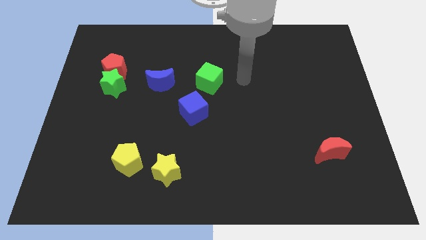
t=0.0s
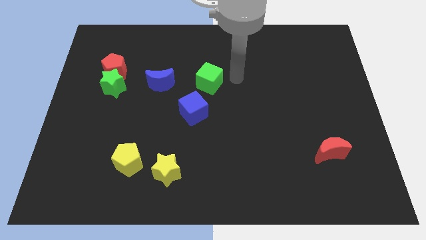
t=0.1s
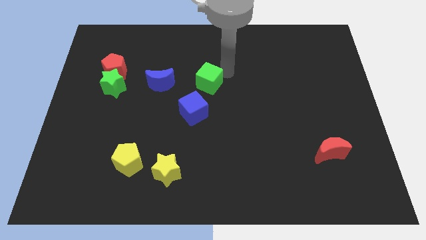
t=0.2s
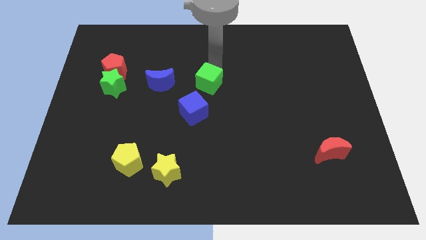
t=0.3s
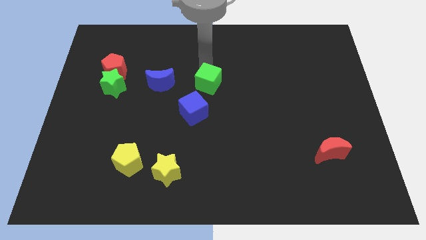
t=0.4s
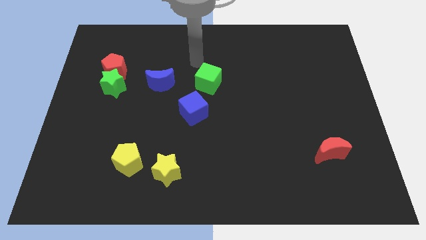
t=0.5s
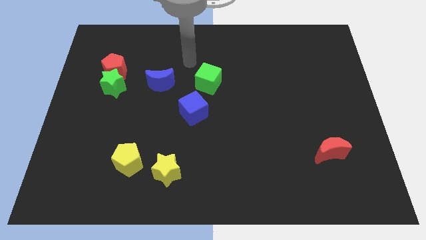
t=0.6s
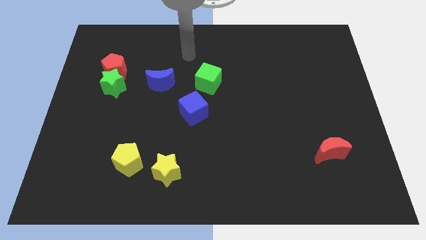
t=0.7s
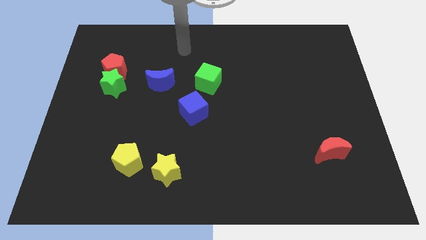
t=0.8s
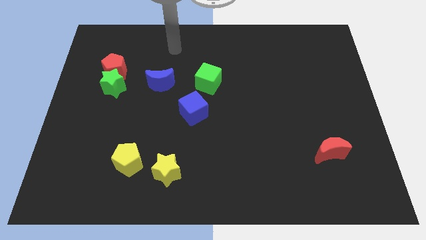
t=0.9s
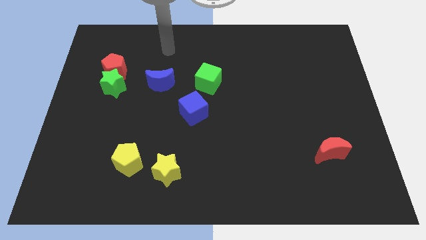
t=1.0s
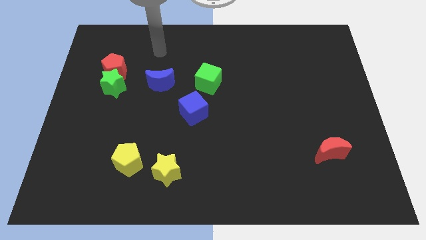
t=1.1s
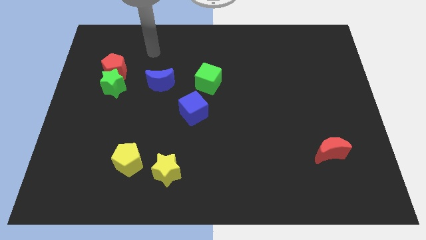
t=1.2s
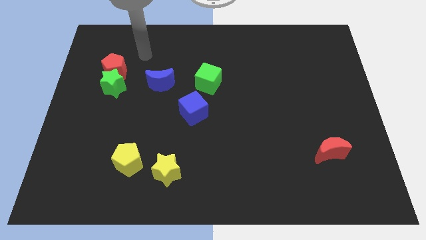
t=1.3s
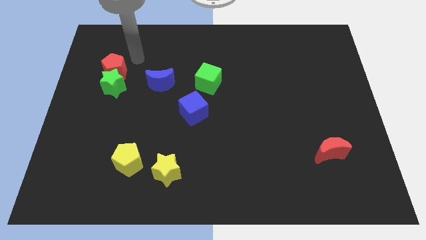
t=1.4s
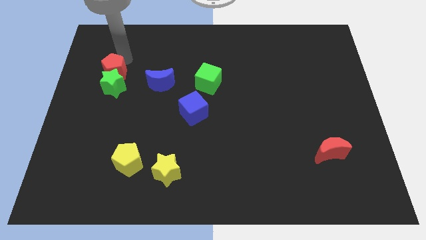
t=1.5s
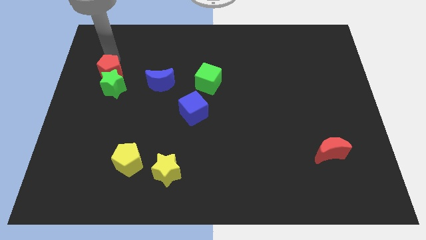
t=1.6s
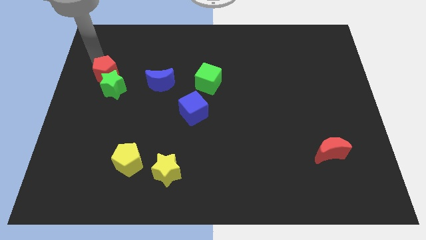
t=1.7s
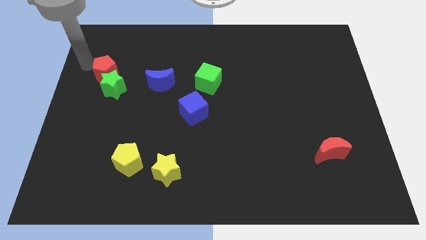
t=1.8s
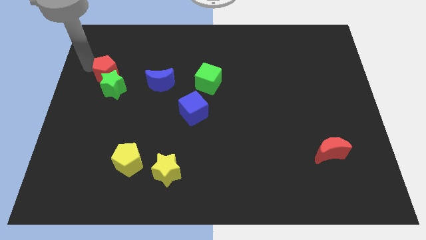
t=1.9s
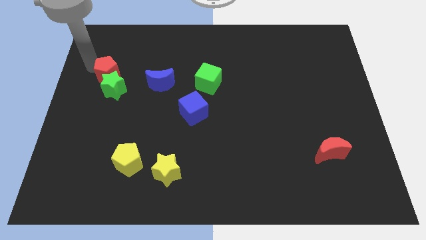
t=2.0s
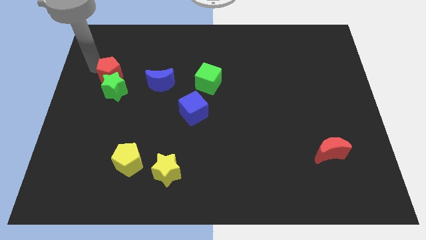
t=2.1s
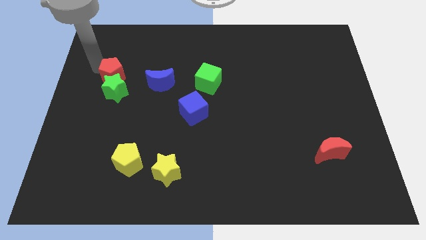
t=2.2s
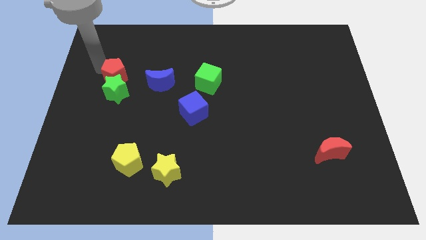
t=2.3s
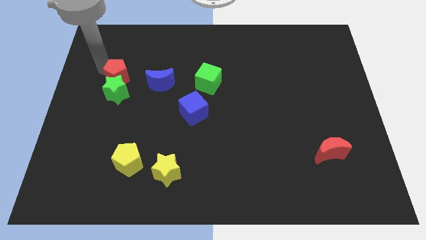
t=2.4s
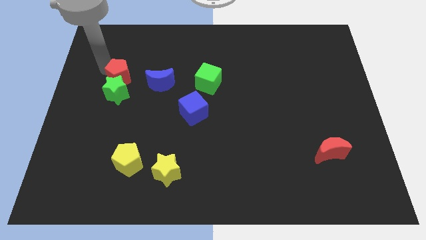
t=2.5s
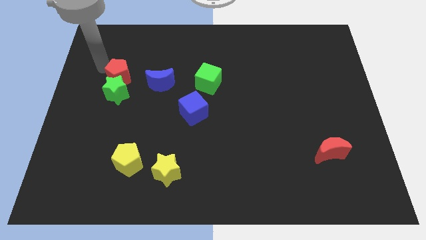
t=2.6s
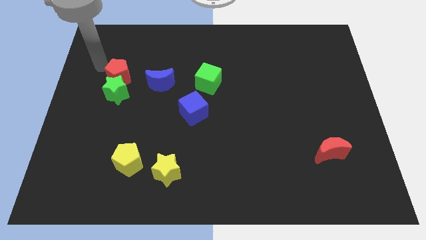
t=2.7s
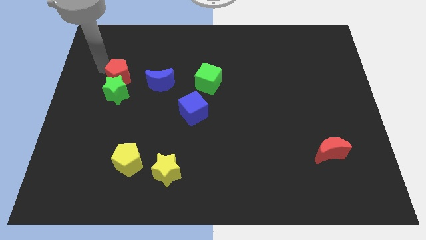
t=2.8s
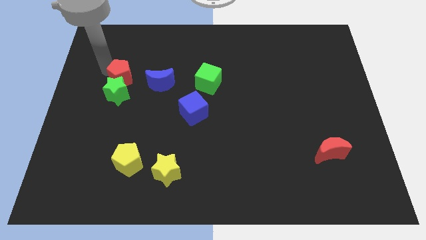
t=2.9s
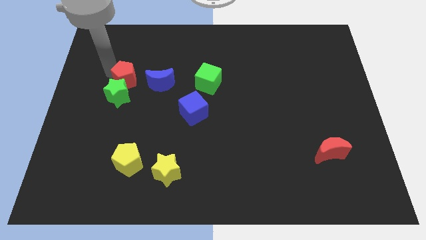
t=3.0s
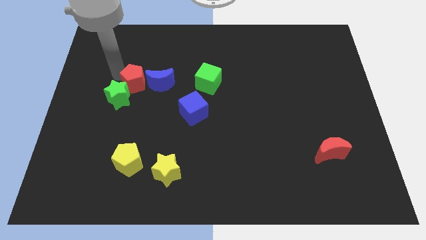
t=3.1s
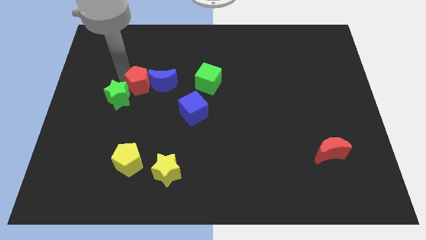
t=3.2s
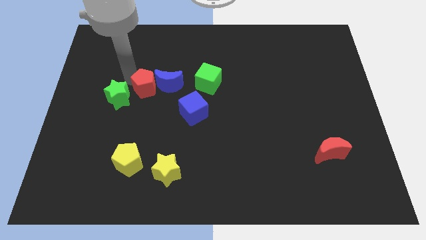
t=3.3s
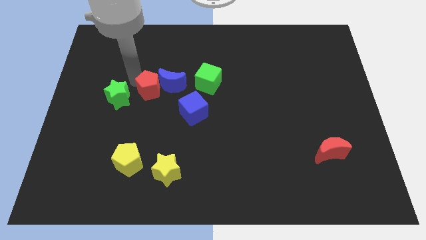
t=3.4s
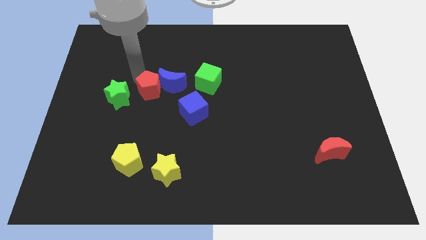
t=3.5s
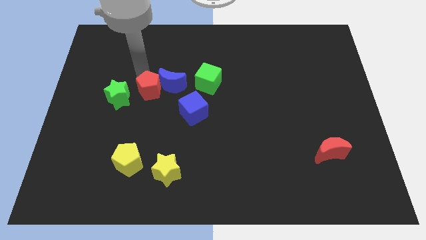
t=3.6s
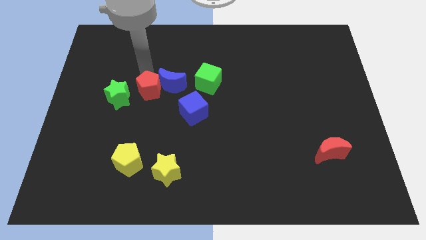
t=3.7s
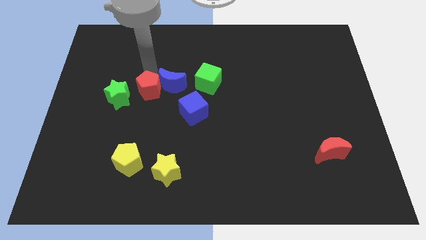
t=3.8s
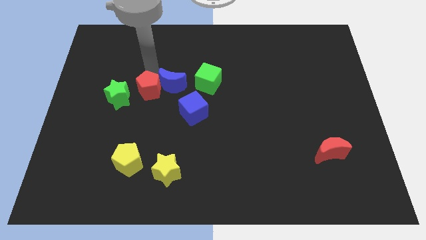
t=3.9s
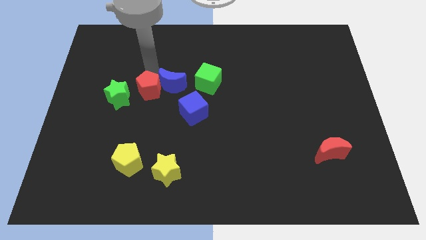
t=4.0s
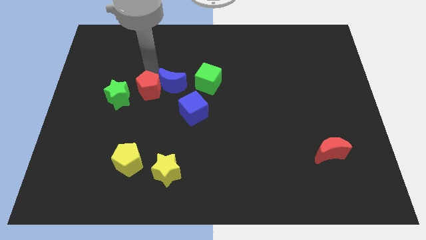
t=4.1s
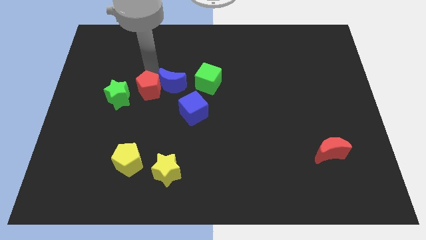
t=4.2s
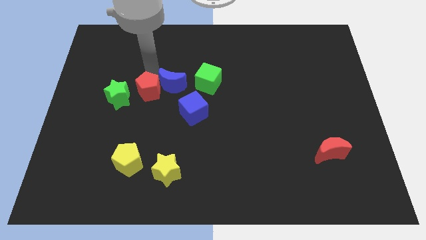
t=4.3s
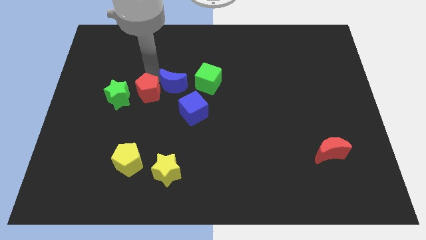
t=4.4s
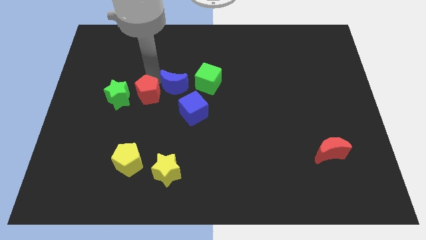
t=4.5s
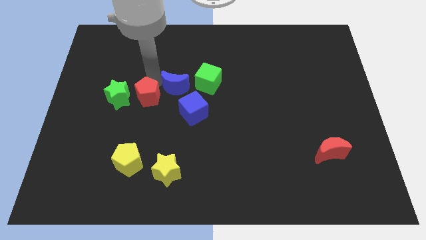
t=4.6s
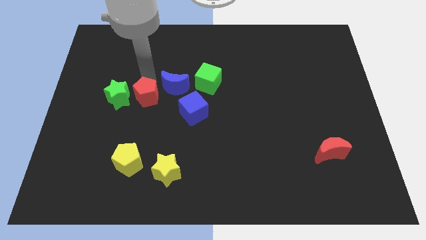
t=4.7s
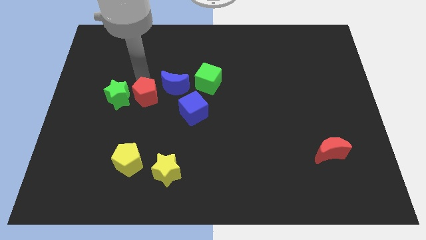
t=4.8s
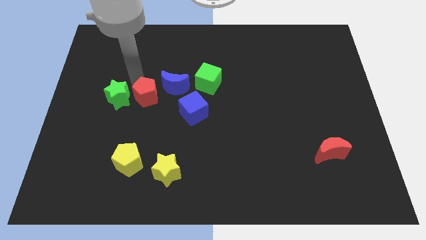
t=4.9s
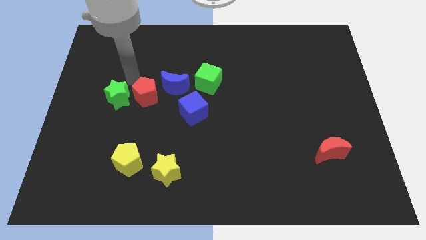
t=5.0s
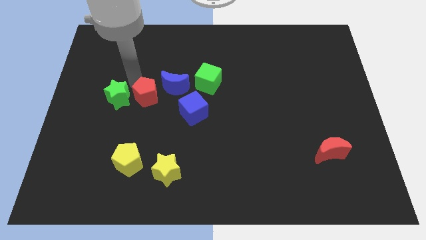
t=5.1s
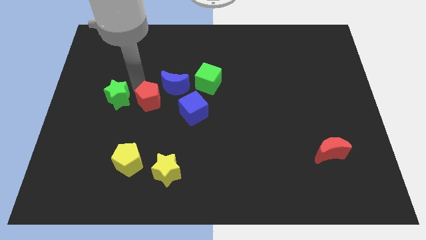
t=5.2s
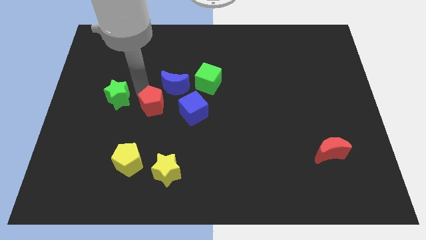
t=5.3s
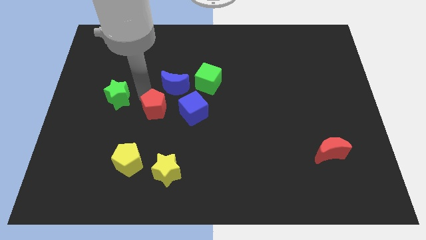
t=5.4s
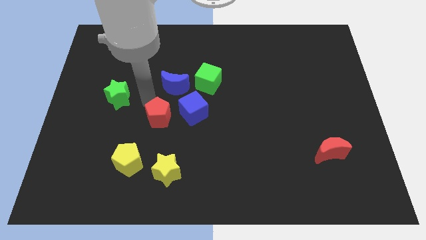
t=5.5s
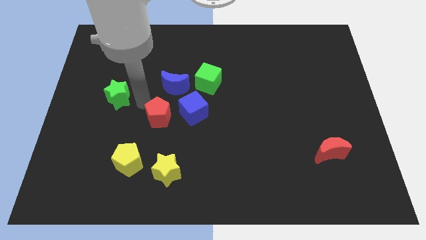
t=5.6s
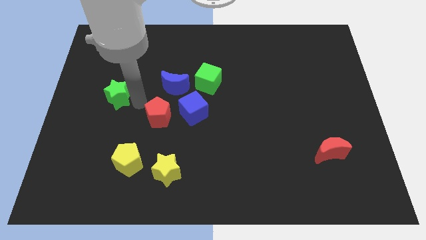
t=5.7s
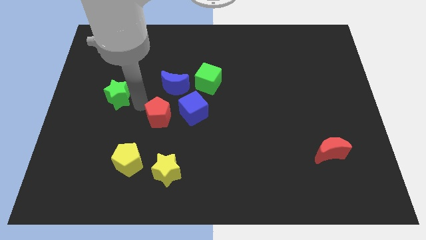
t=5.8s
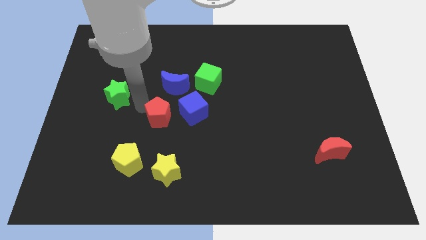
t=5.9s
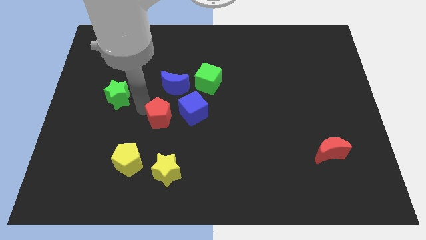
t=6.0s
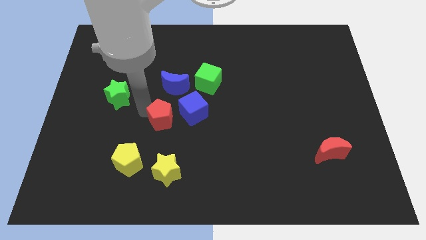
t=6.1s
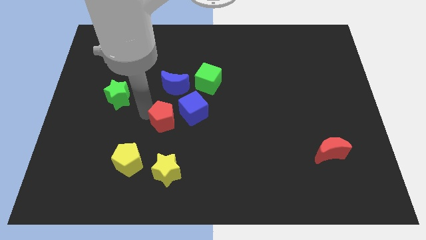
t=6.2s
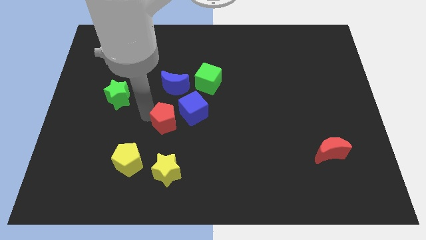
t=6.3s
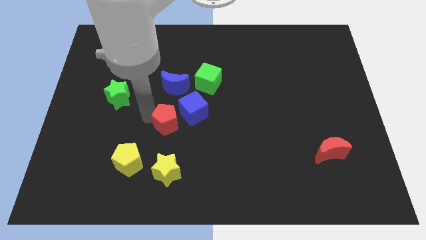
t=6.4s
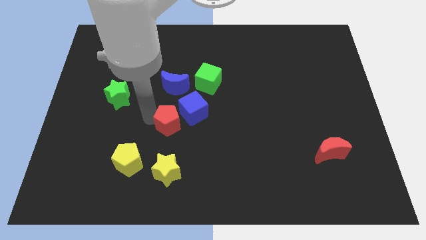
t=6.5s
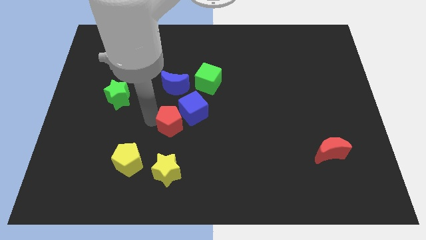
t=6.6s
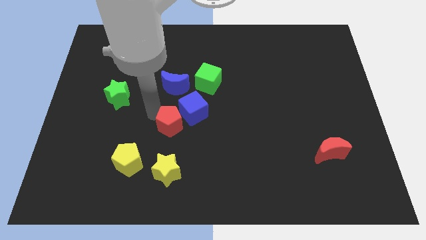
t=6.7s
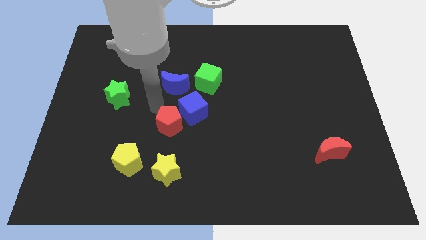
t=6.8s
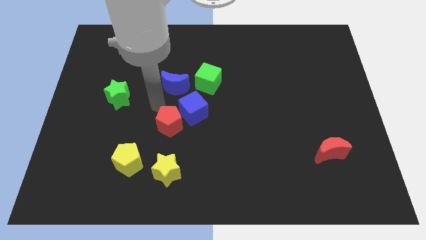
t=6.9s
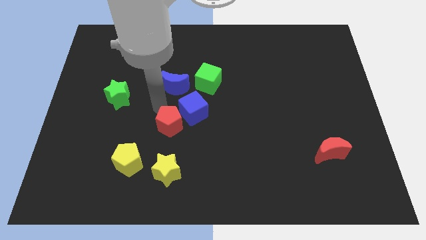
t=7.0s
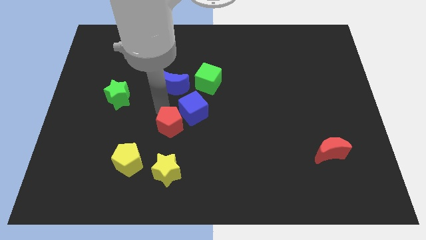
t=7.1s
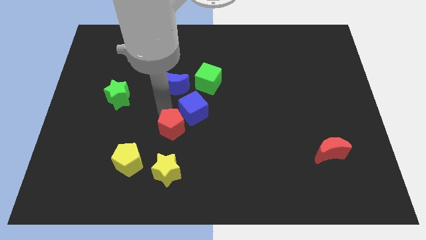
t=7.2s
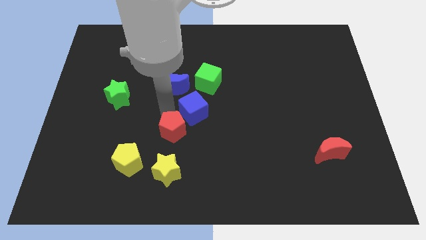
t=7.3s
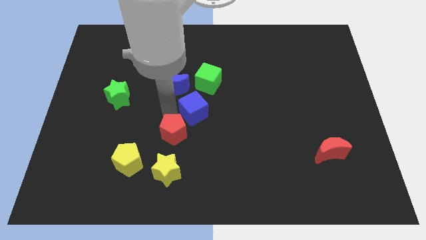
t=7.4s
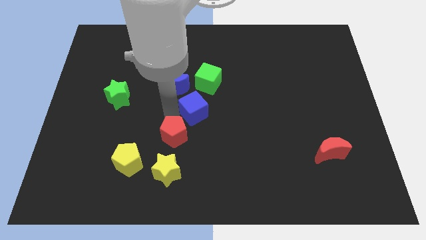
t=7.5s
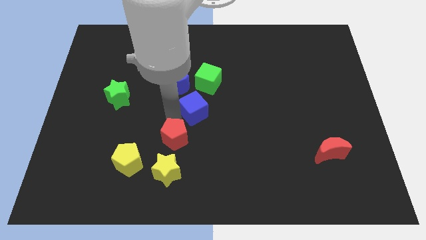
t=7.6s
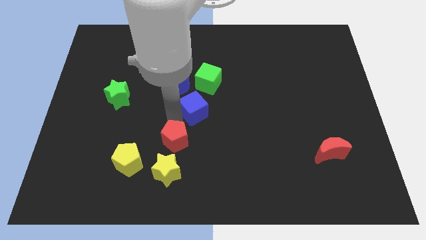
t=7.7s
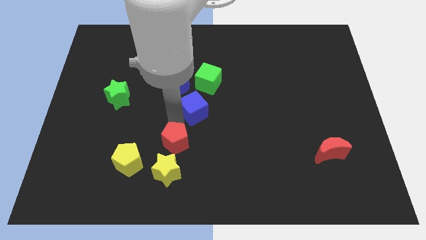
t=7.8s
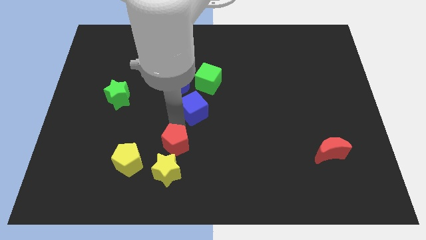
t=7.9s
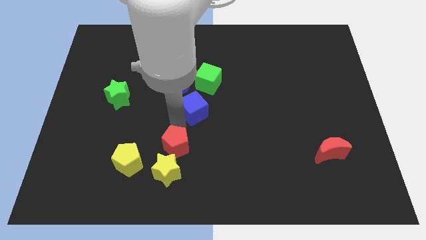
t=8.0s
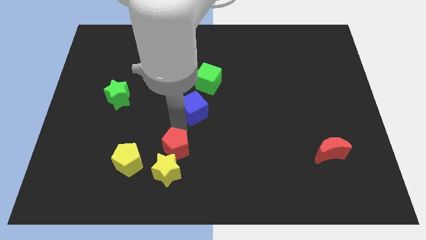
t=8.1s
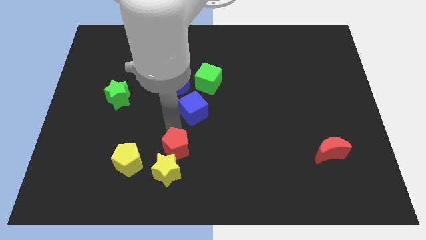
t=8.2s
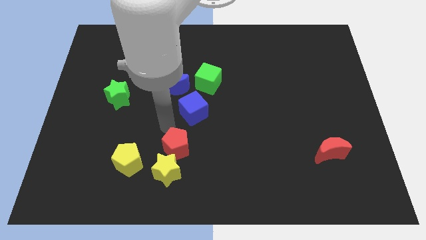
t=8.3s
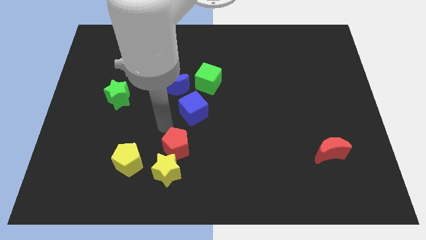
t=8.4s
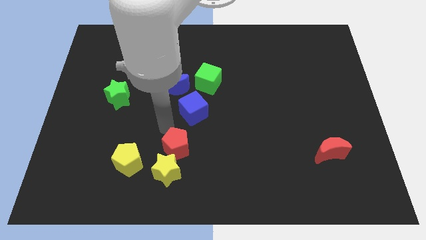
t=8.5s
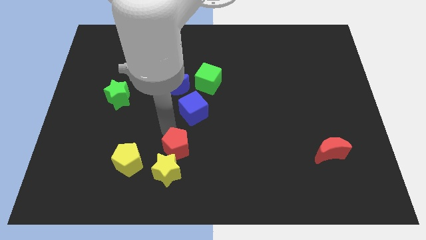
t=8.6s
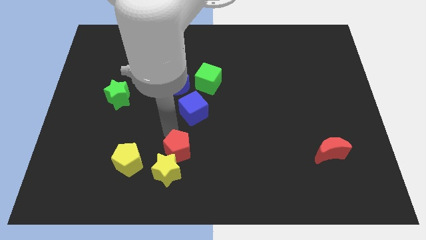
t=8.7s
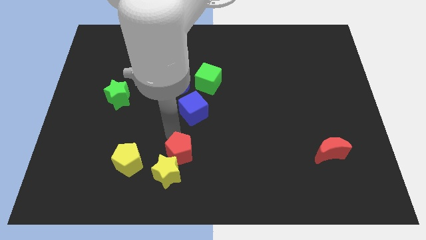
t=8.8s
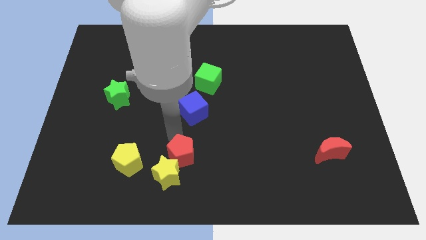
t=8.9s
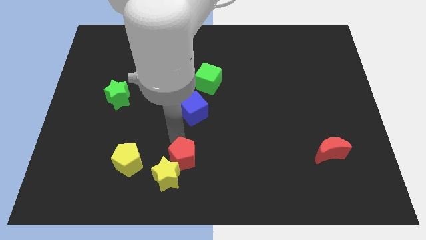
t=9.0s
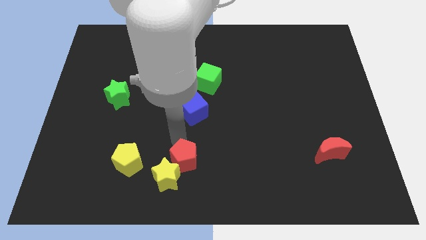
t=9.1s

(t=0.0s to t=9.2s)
push the red pentagon to the bottom side
